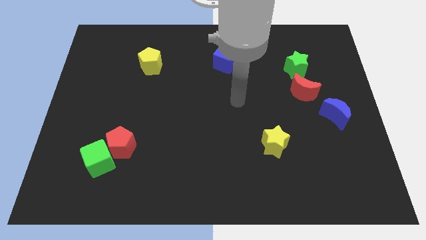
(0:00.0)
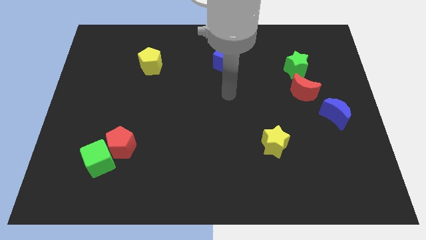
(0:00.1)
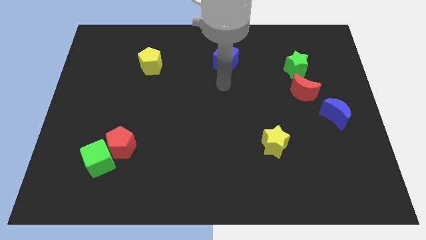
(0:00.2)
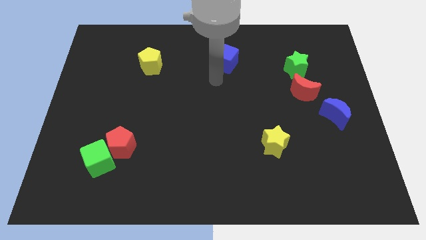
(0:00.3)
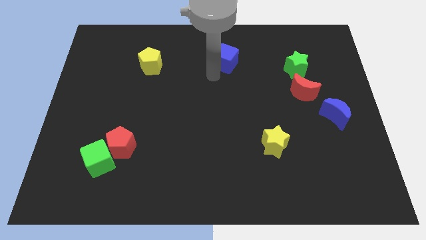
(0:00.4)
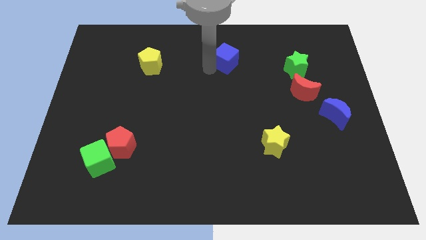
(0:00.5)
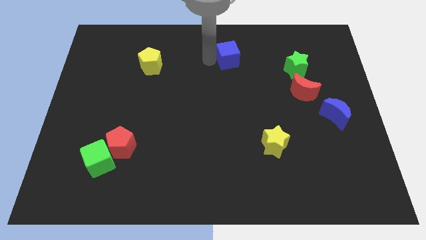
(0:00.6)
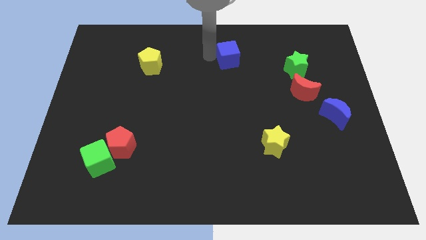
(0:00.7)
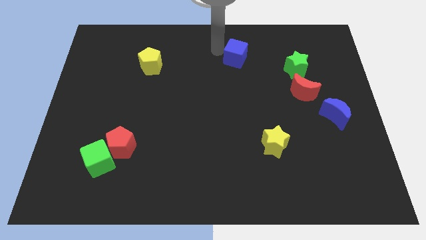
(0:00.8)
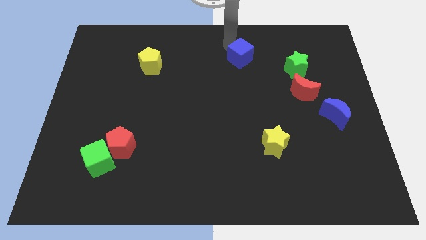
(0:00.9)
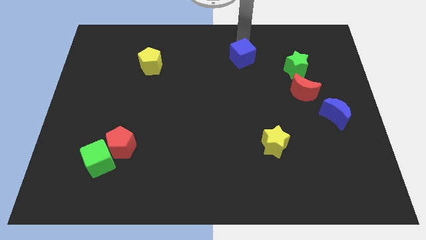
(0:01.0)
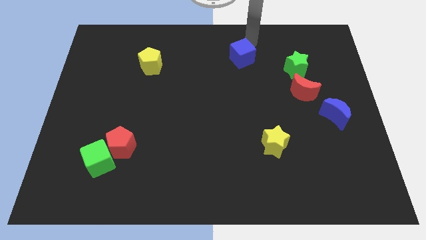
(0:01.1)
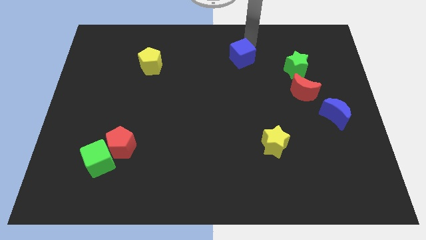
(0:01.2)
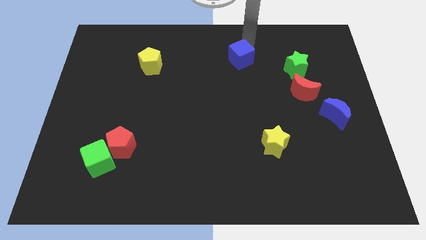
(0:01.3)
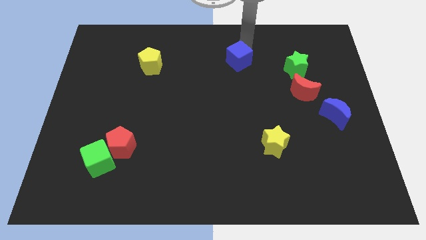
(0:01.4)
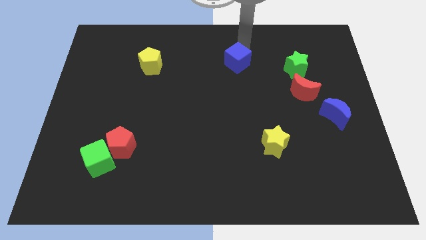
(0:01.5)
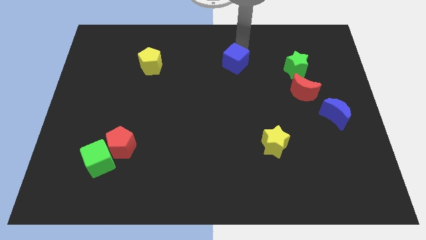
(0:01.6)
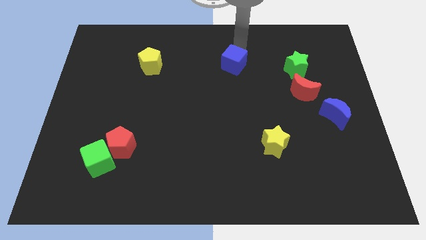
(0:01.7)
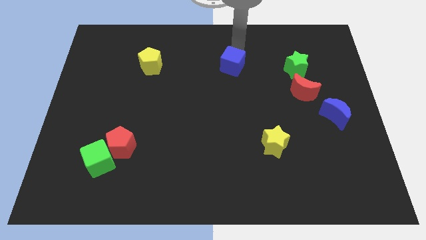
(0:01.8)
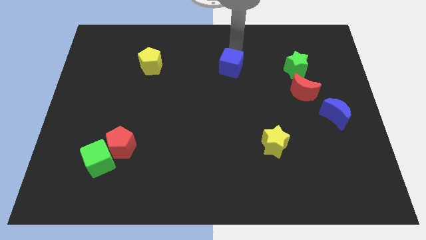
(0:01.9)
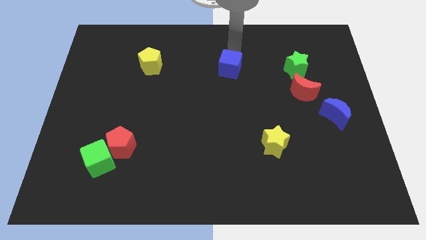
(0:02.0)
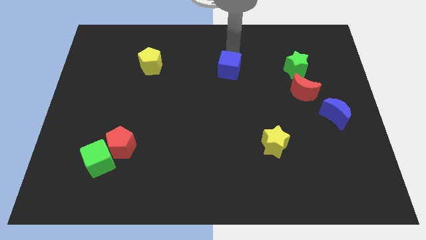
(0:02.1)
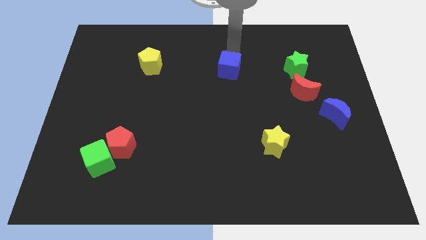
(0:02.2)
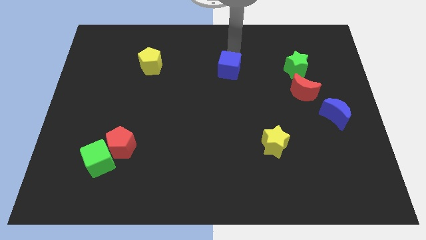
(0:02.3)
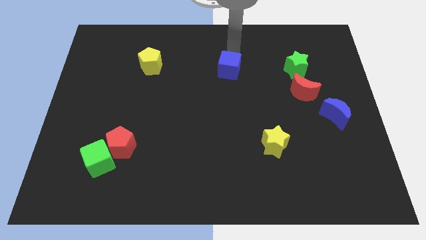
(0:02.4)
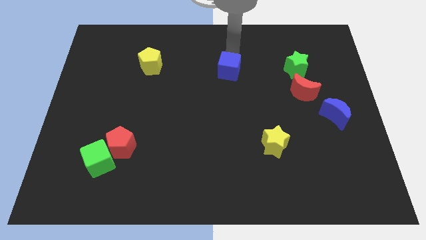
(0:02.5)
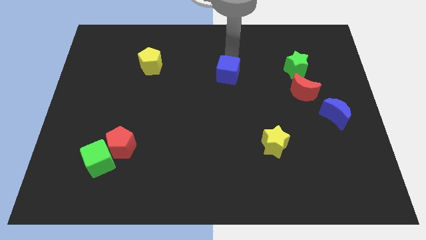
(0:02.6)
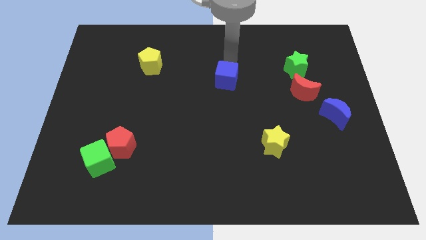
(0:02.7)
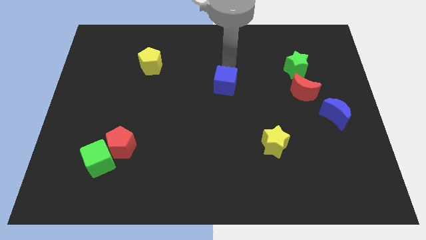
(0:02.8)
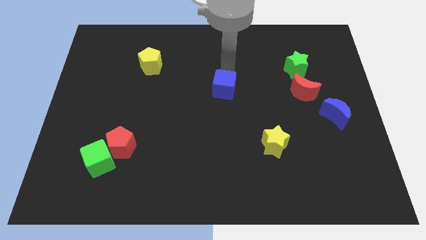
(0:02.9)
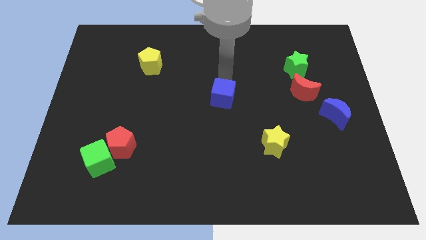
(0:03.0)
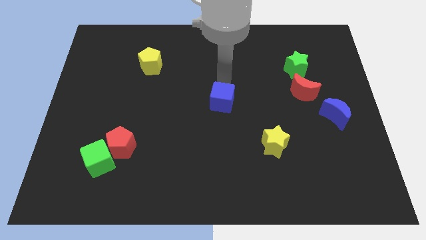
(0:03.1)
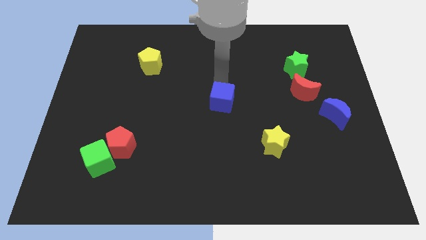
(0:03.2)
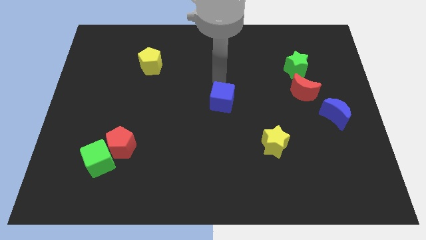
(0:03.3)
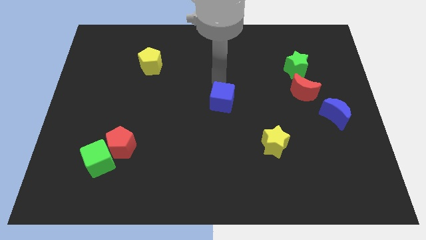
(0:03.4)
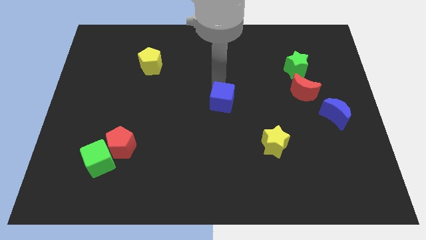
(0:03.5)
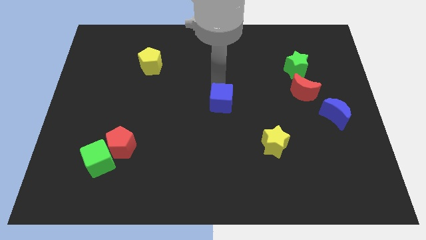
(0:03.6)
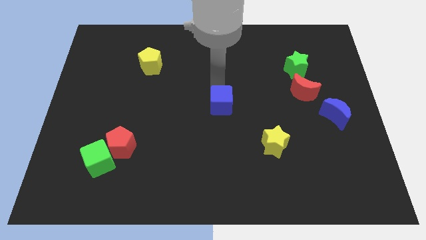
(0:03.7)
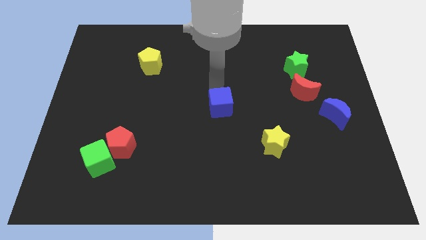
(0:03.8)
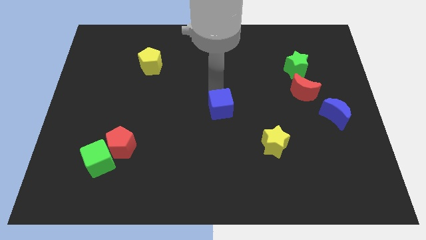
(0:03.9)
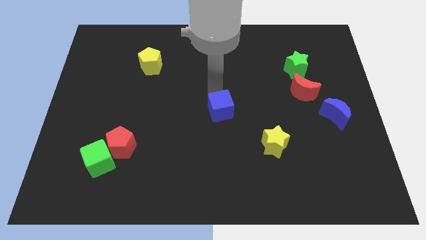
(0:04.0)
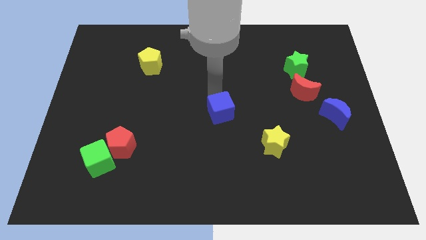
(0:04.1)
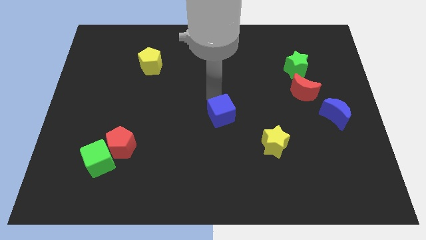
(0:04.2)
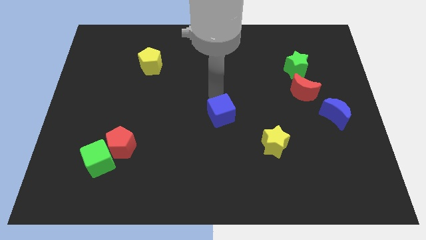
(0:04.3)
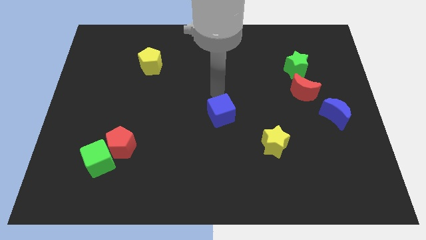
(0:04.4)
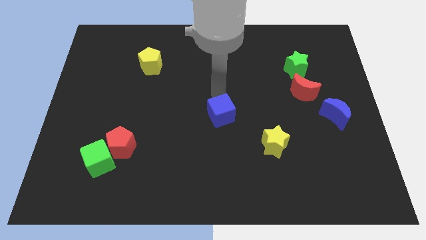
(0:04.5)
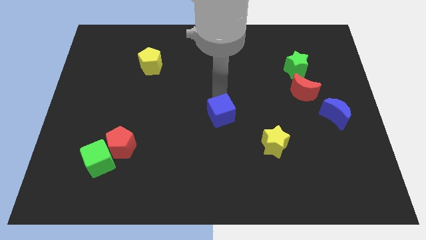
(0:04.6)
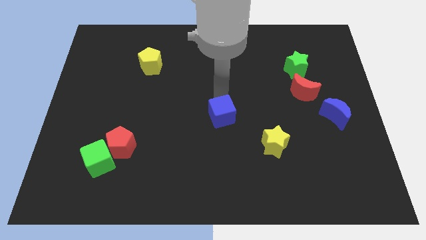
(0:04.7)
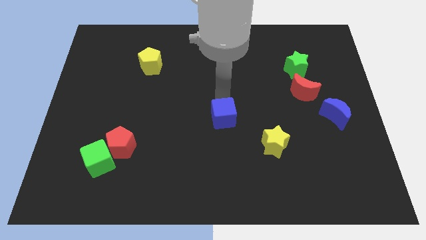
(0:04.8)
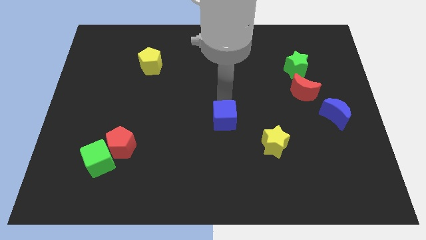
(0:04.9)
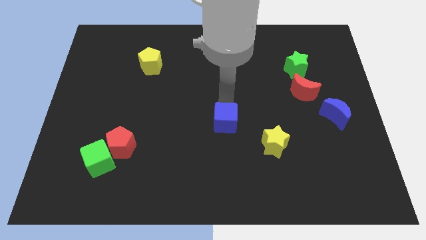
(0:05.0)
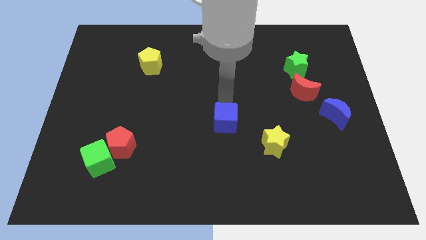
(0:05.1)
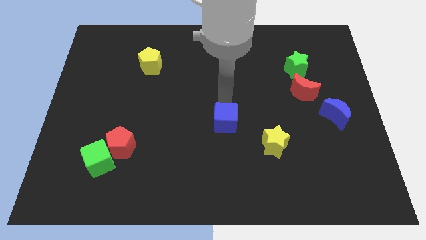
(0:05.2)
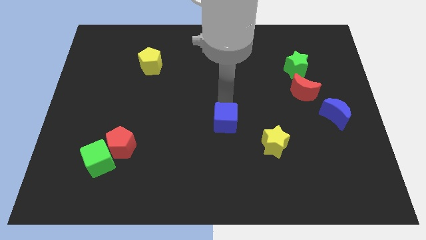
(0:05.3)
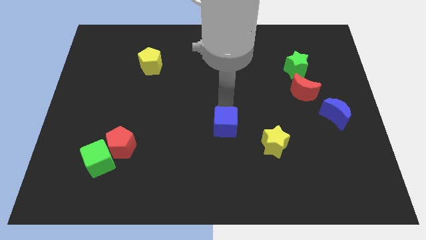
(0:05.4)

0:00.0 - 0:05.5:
slide the blue cube down

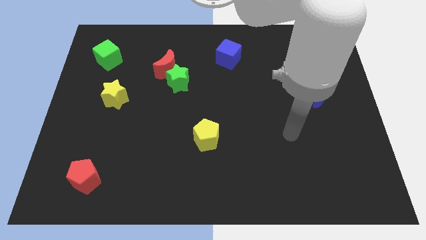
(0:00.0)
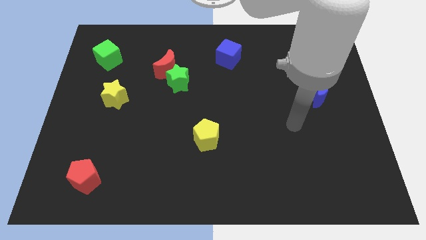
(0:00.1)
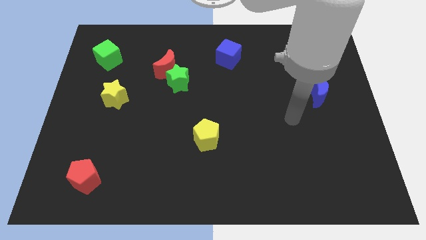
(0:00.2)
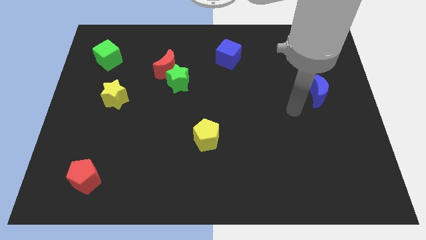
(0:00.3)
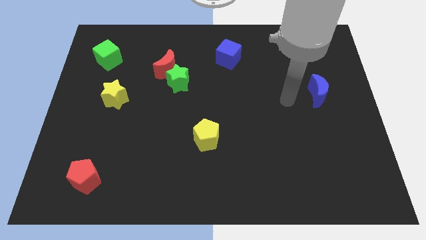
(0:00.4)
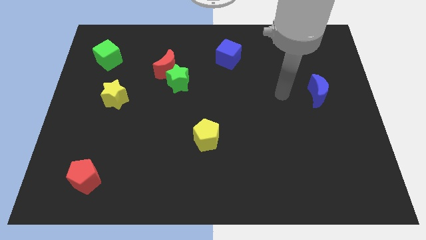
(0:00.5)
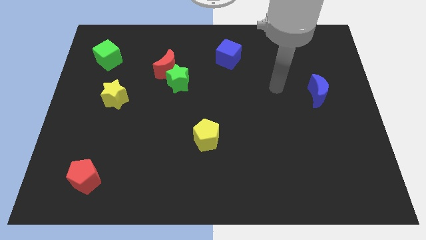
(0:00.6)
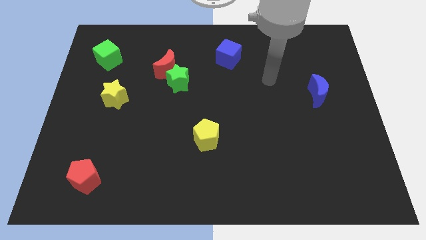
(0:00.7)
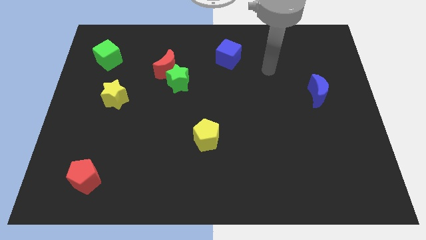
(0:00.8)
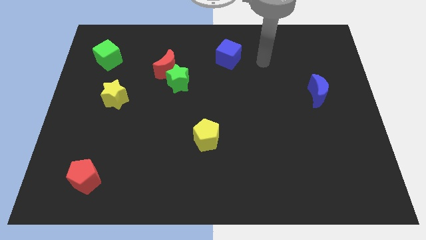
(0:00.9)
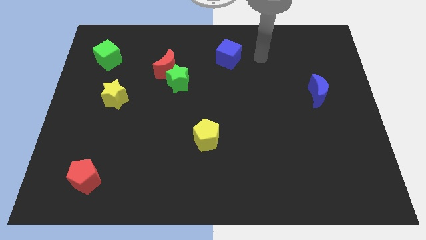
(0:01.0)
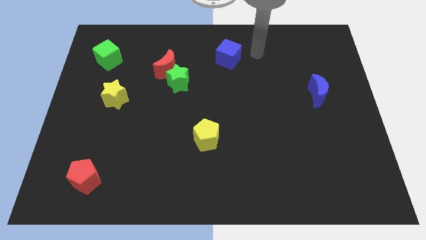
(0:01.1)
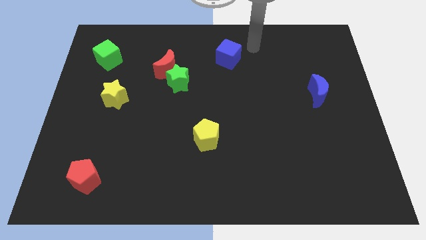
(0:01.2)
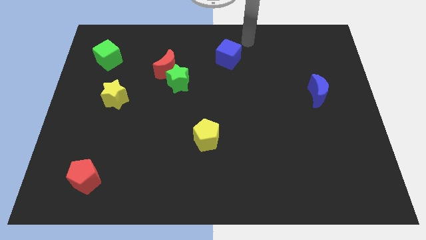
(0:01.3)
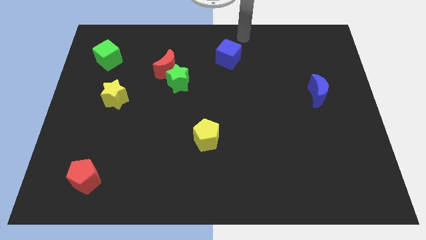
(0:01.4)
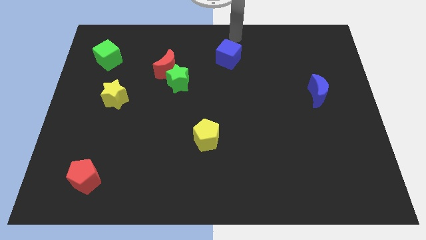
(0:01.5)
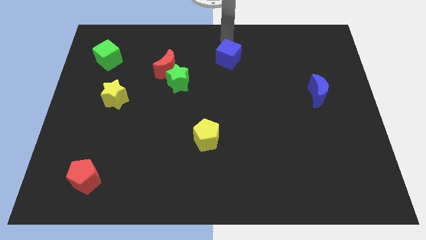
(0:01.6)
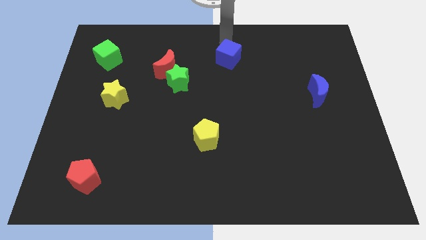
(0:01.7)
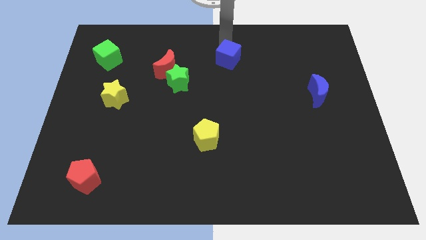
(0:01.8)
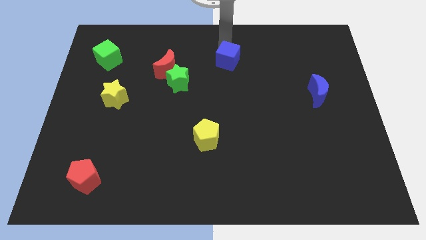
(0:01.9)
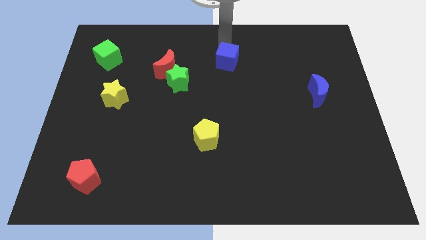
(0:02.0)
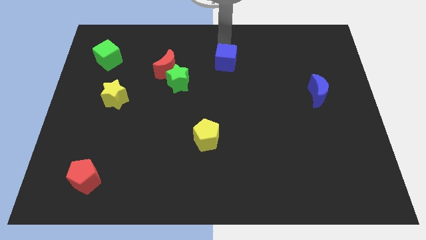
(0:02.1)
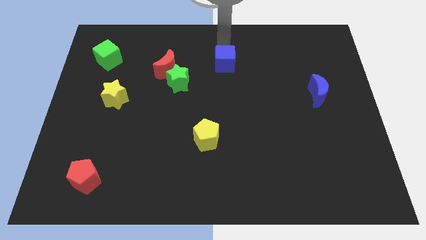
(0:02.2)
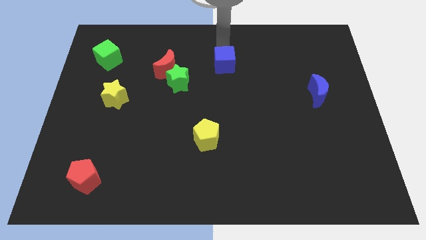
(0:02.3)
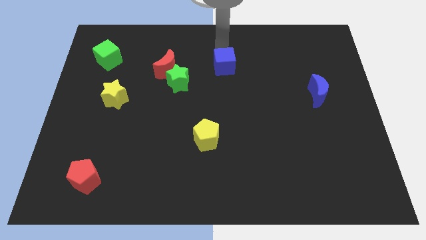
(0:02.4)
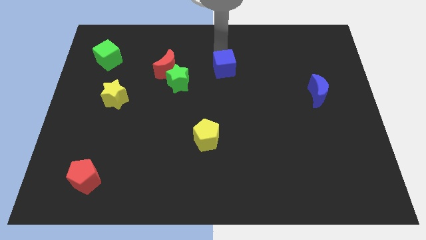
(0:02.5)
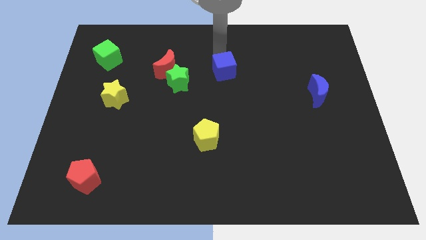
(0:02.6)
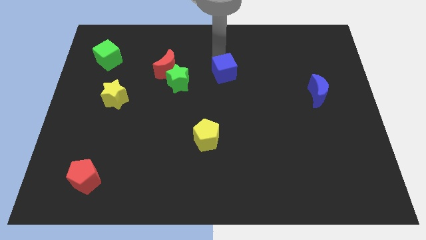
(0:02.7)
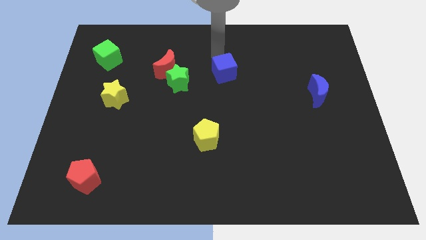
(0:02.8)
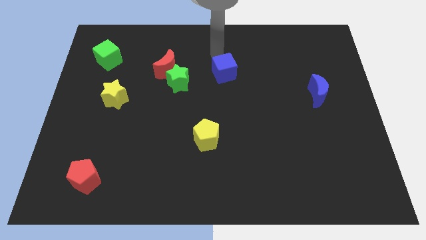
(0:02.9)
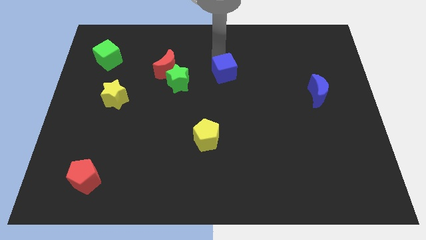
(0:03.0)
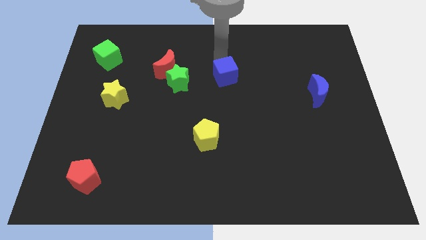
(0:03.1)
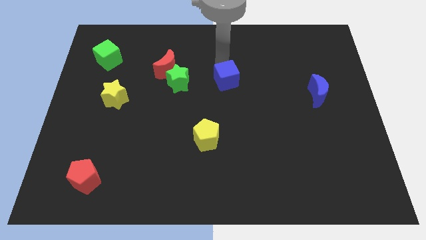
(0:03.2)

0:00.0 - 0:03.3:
slightly move the blue cube down
